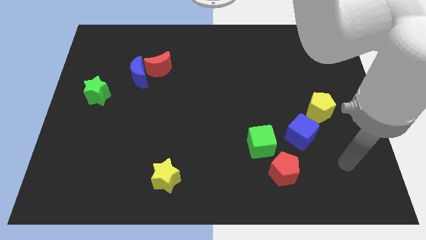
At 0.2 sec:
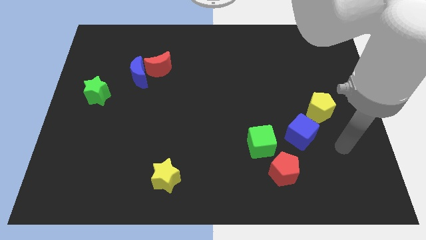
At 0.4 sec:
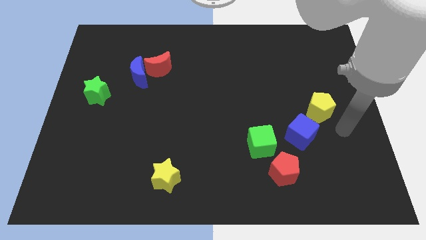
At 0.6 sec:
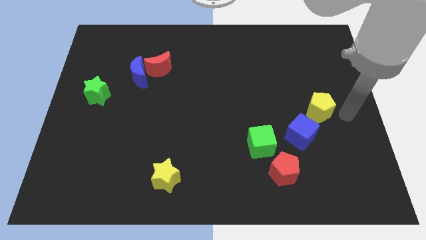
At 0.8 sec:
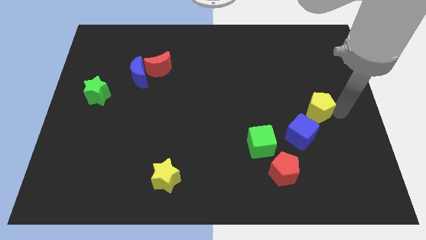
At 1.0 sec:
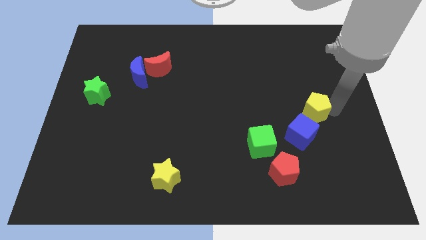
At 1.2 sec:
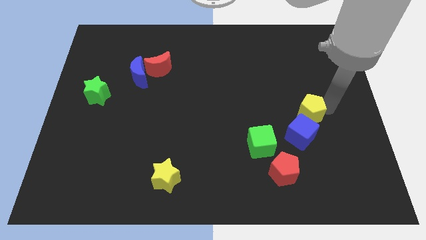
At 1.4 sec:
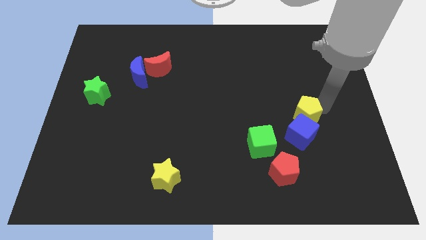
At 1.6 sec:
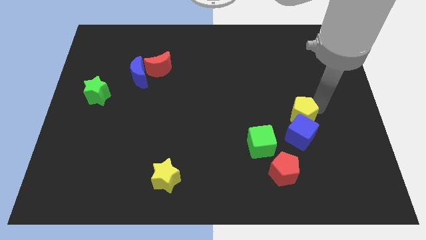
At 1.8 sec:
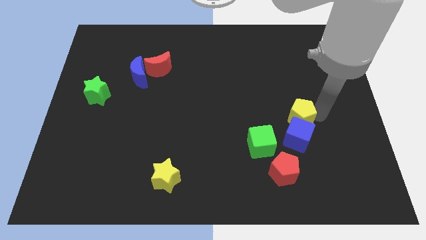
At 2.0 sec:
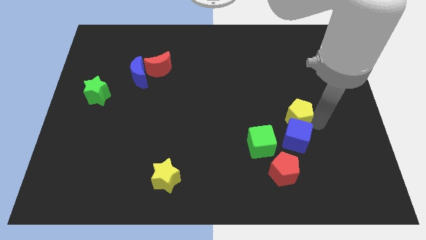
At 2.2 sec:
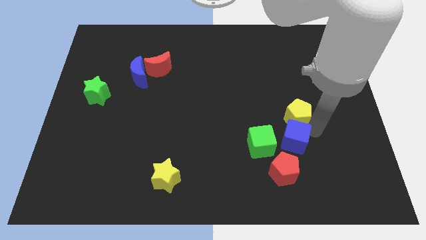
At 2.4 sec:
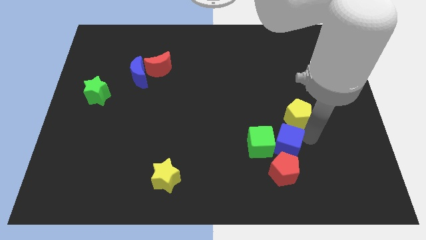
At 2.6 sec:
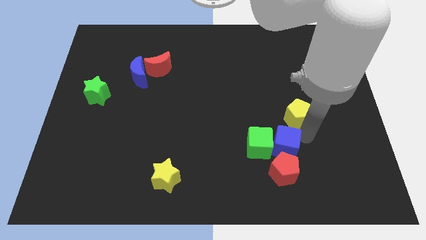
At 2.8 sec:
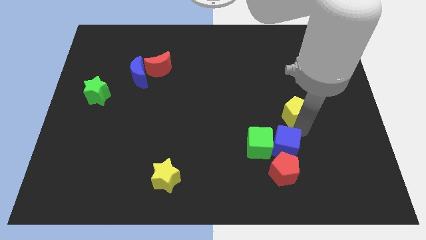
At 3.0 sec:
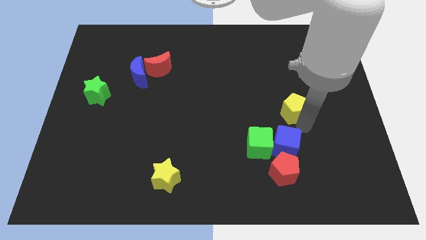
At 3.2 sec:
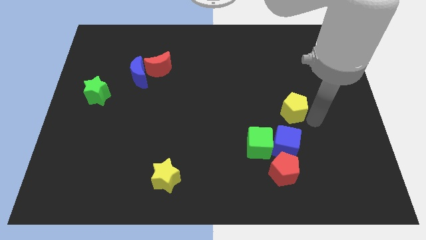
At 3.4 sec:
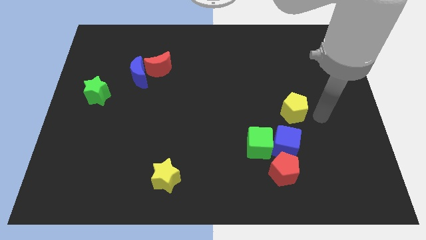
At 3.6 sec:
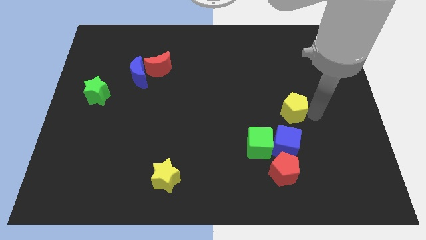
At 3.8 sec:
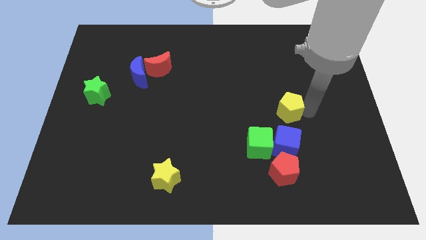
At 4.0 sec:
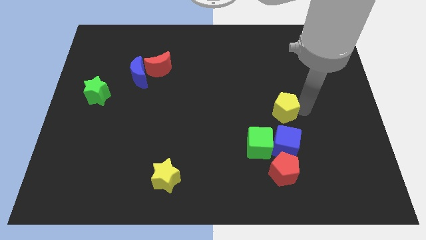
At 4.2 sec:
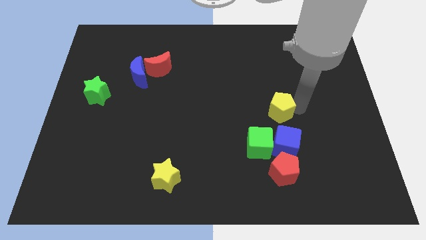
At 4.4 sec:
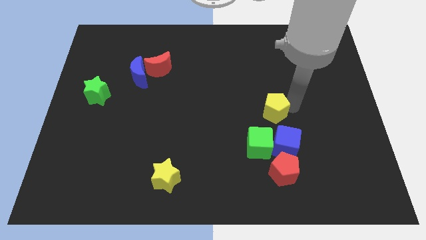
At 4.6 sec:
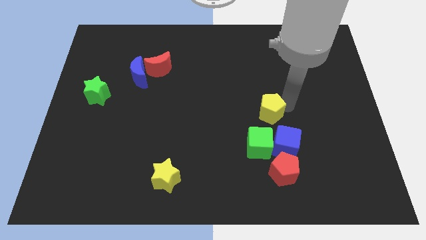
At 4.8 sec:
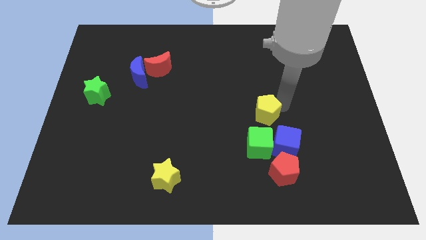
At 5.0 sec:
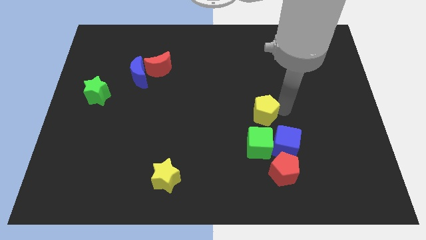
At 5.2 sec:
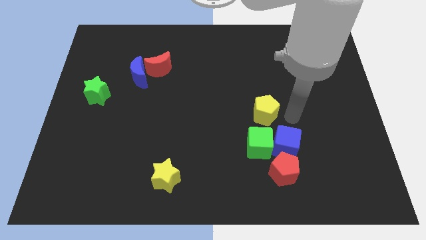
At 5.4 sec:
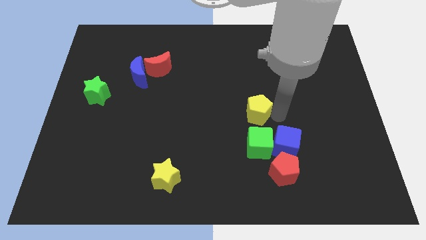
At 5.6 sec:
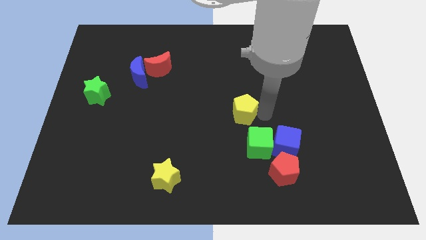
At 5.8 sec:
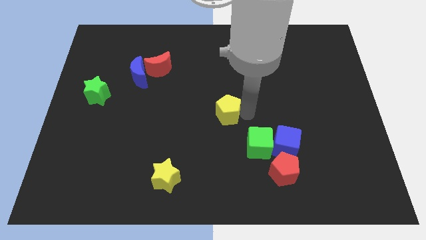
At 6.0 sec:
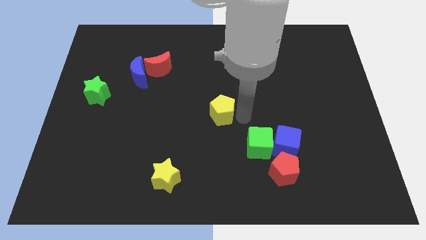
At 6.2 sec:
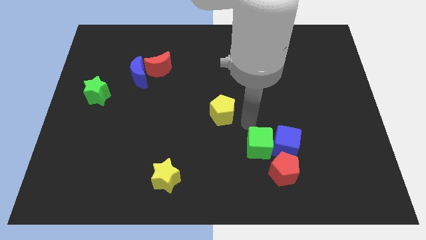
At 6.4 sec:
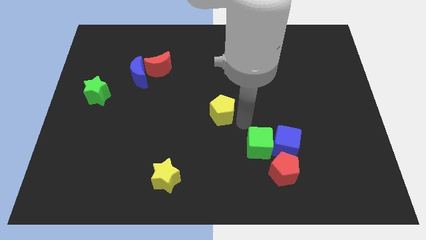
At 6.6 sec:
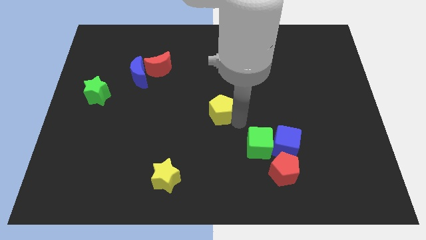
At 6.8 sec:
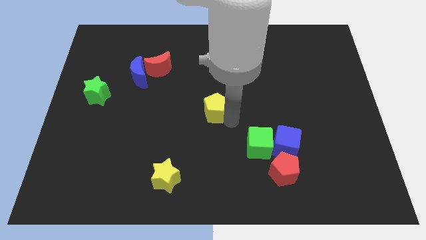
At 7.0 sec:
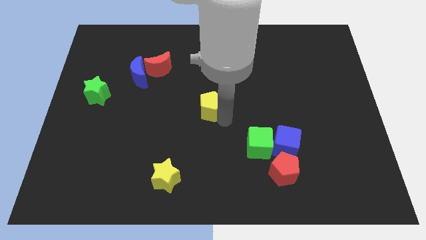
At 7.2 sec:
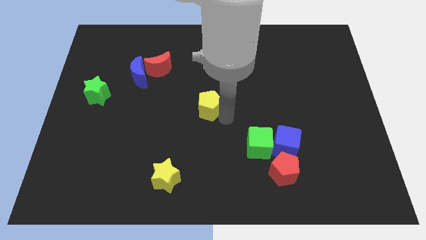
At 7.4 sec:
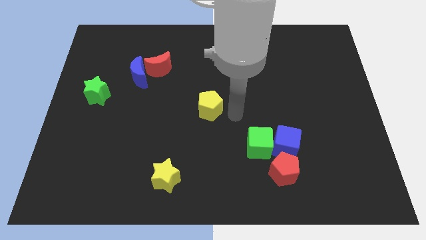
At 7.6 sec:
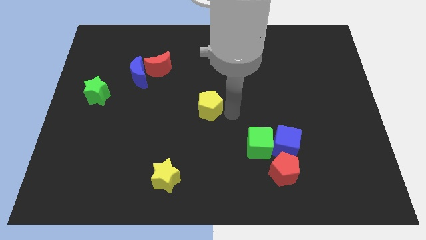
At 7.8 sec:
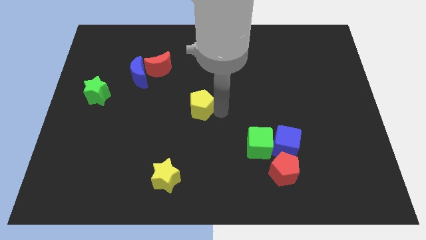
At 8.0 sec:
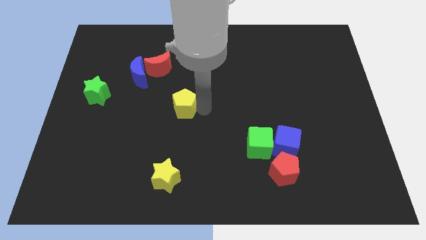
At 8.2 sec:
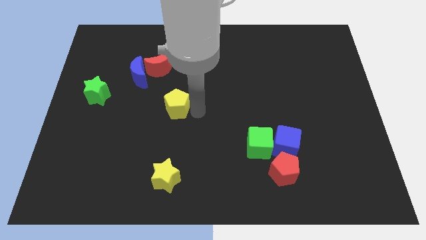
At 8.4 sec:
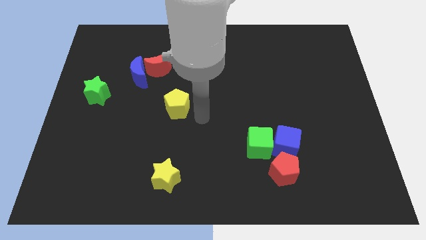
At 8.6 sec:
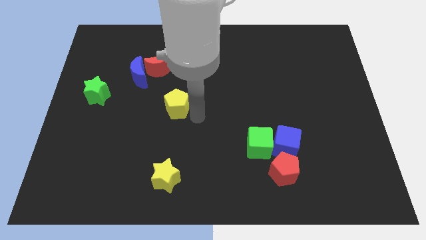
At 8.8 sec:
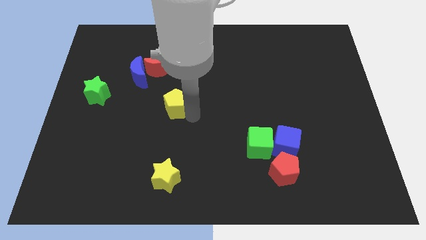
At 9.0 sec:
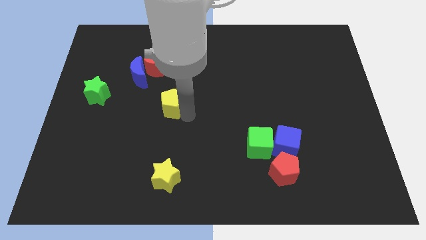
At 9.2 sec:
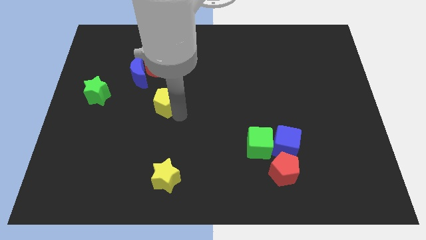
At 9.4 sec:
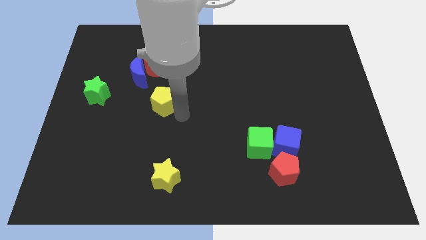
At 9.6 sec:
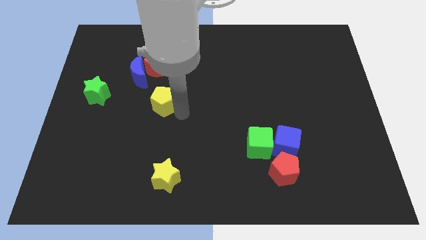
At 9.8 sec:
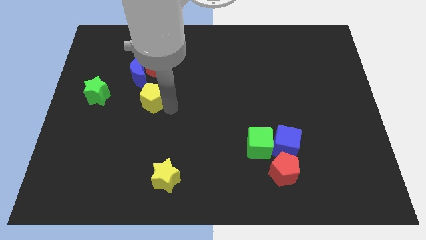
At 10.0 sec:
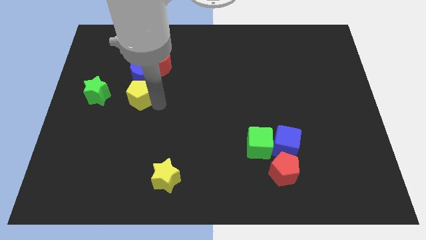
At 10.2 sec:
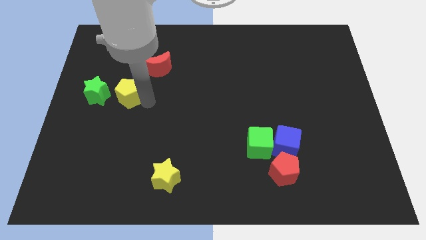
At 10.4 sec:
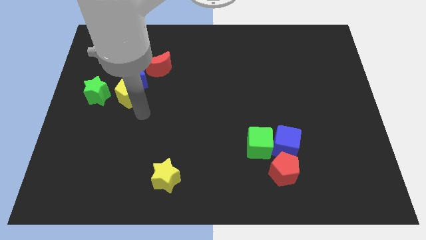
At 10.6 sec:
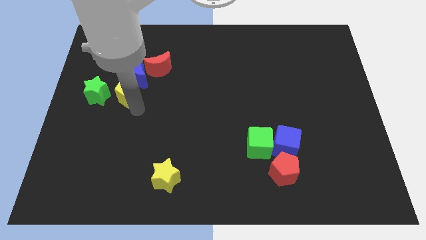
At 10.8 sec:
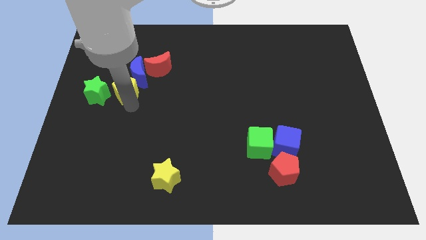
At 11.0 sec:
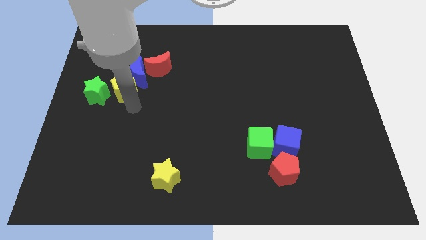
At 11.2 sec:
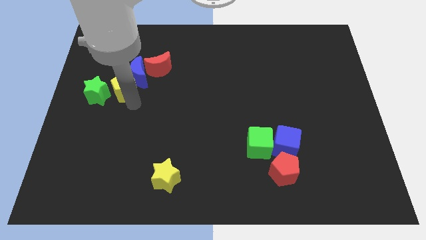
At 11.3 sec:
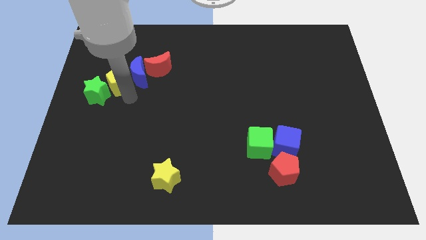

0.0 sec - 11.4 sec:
slide the yellow pentagon to the top side of the green star

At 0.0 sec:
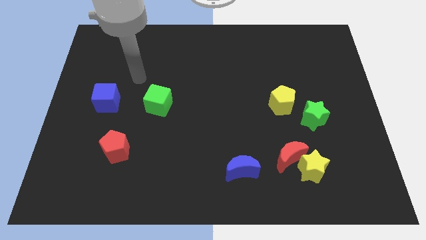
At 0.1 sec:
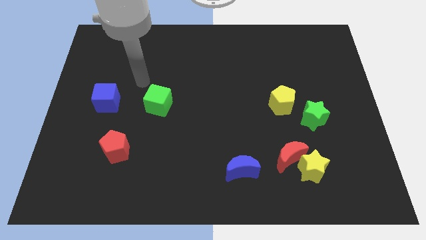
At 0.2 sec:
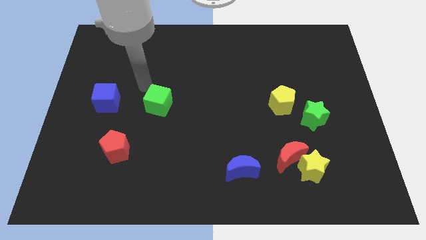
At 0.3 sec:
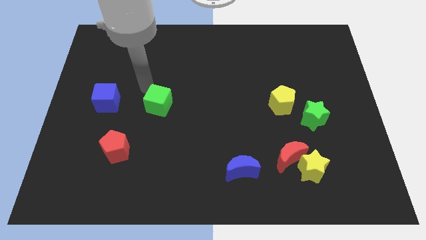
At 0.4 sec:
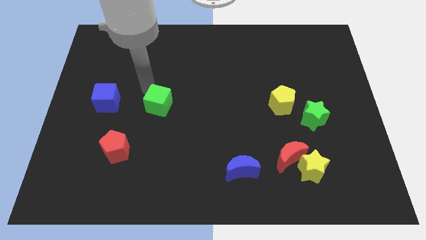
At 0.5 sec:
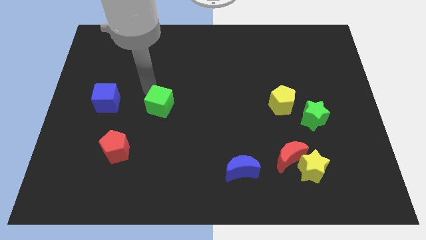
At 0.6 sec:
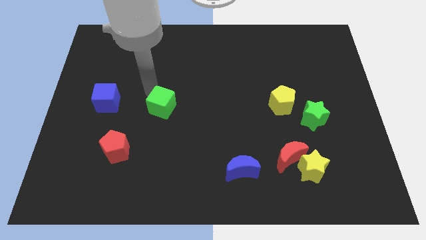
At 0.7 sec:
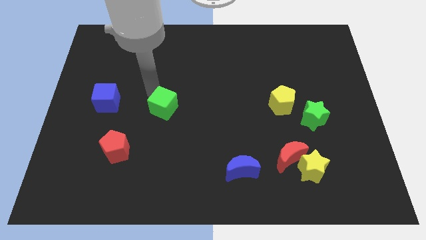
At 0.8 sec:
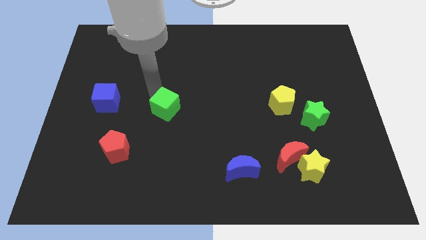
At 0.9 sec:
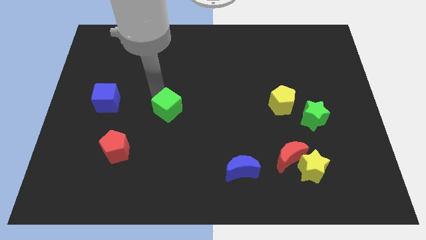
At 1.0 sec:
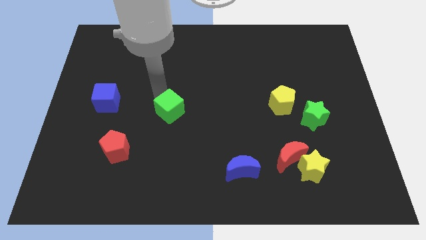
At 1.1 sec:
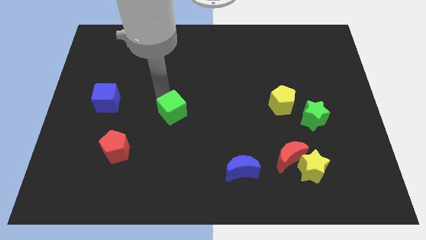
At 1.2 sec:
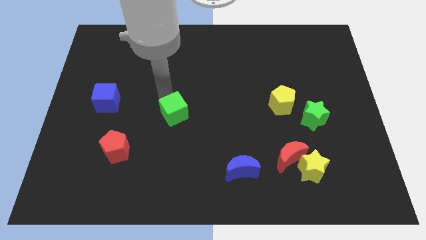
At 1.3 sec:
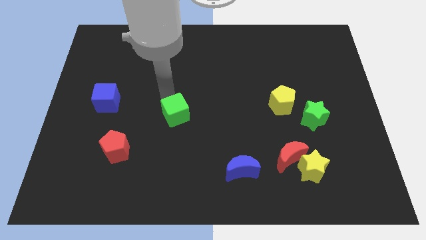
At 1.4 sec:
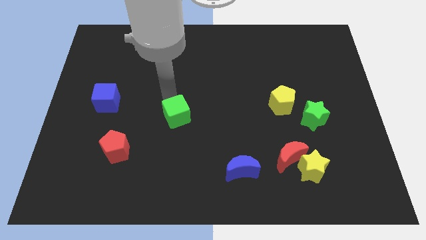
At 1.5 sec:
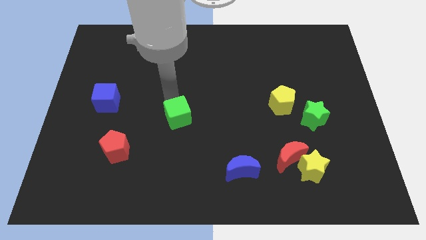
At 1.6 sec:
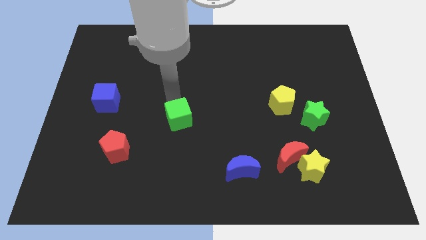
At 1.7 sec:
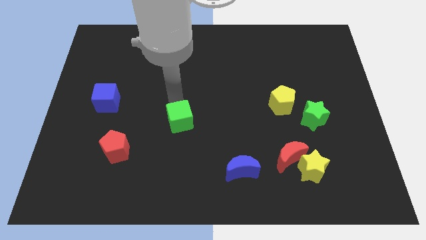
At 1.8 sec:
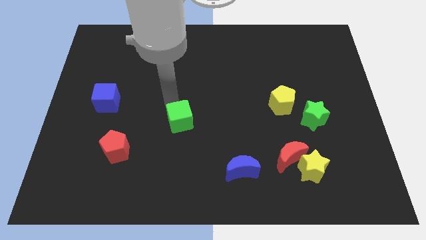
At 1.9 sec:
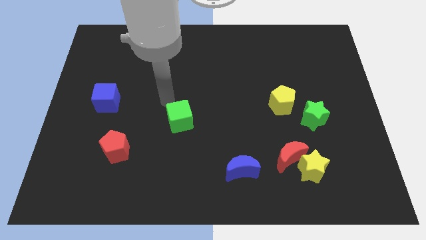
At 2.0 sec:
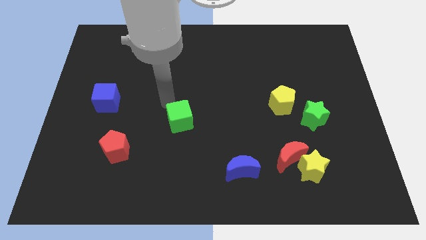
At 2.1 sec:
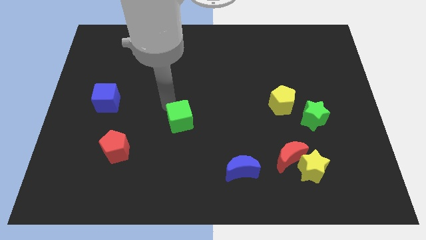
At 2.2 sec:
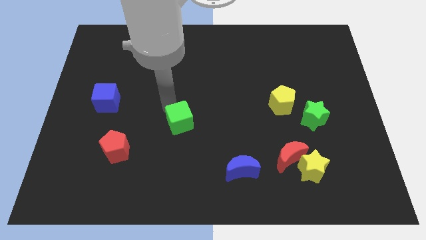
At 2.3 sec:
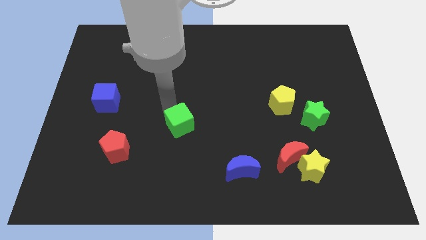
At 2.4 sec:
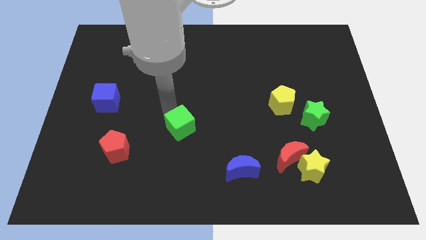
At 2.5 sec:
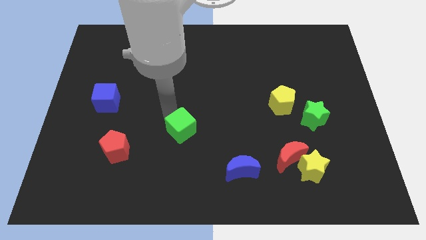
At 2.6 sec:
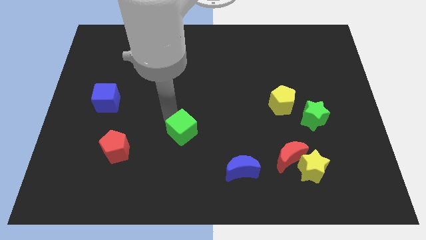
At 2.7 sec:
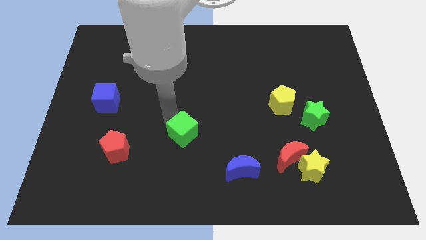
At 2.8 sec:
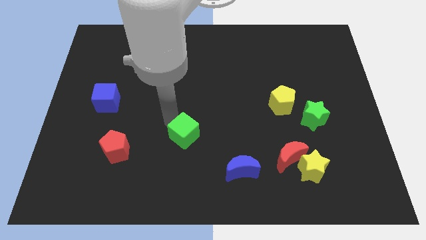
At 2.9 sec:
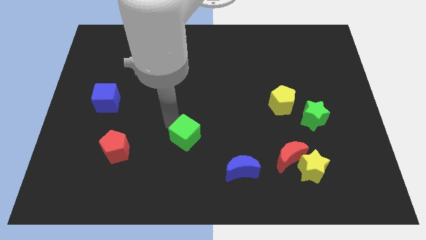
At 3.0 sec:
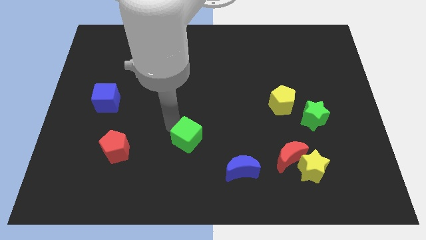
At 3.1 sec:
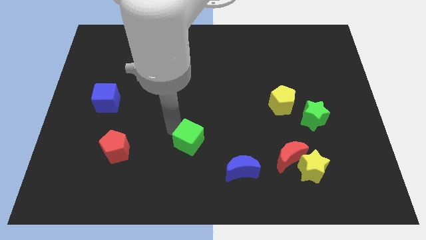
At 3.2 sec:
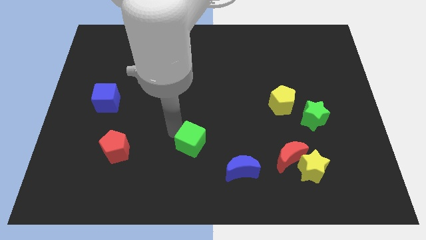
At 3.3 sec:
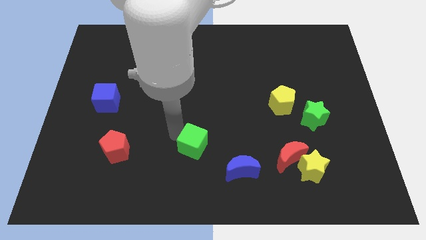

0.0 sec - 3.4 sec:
push the green cube diagonally up and to the left of the blue moon
